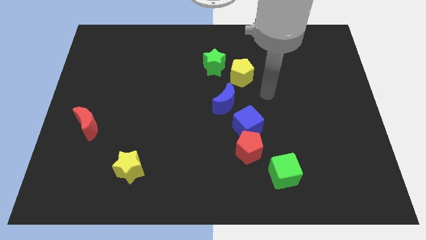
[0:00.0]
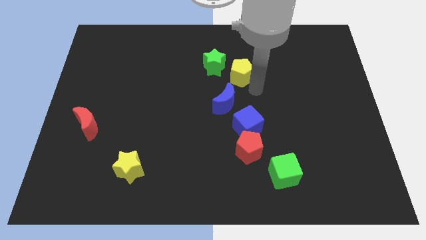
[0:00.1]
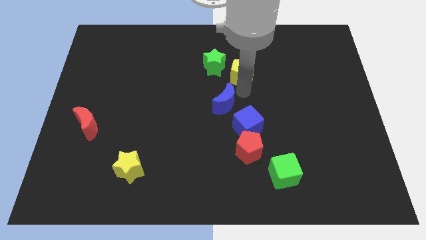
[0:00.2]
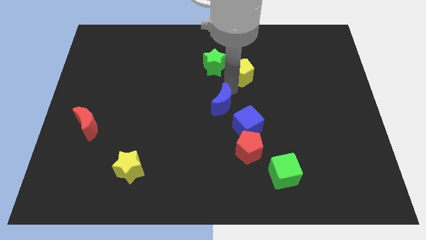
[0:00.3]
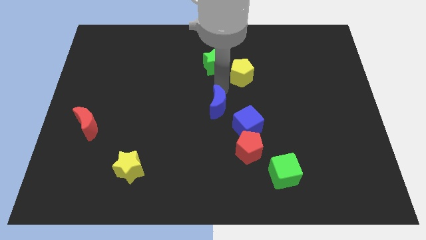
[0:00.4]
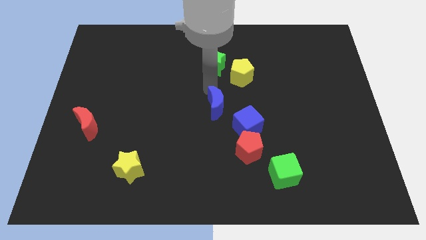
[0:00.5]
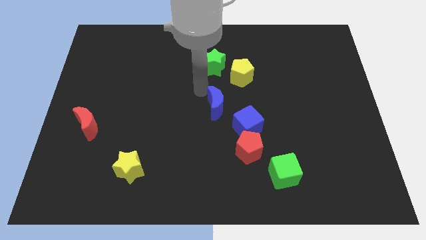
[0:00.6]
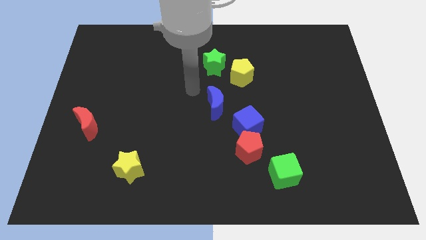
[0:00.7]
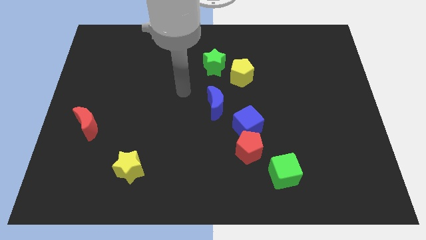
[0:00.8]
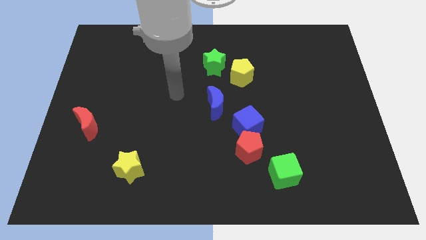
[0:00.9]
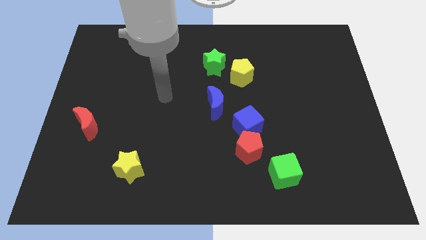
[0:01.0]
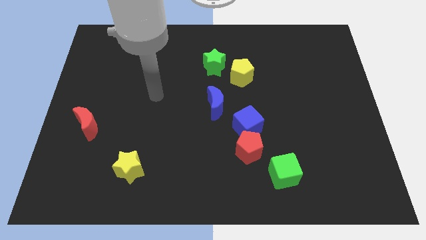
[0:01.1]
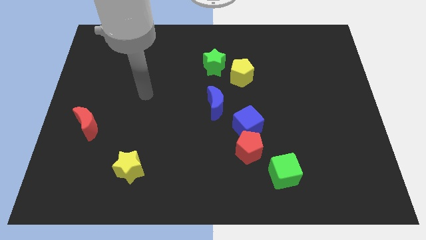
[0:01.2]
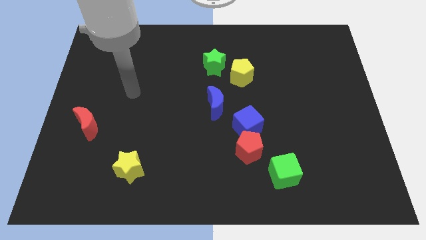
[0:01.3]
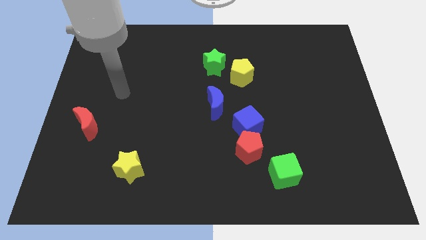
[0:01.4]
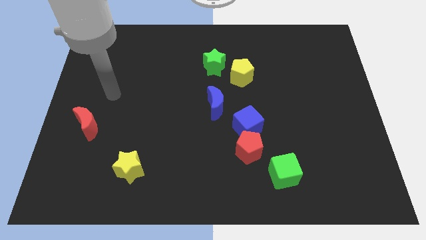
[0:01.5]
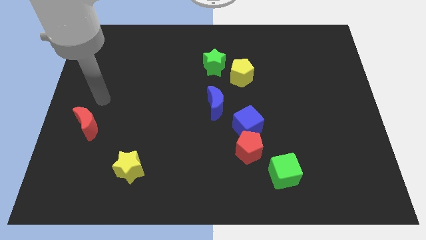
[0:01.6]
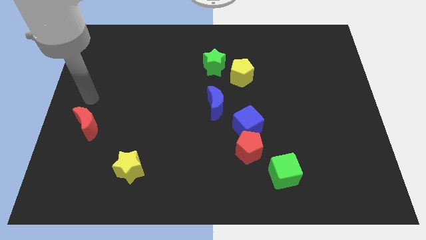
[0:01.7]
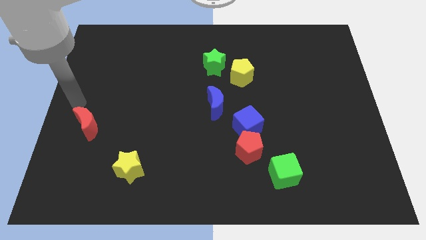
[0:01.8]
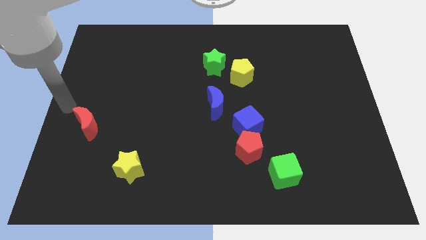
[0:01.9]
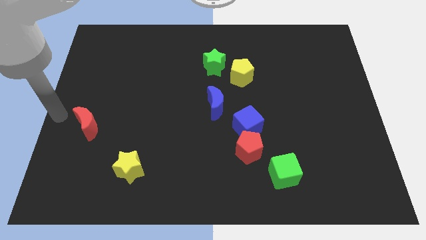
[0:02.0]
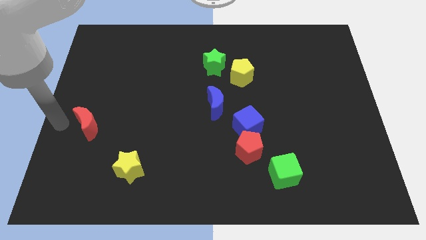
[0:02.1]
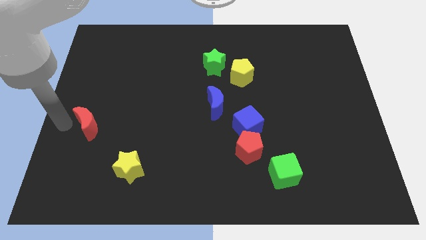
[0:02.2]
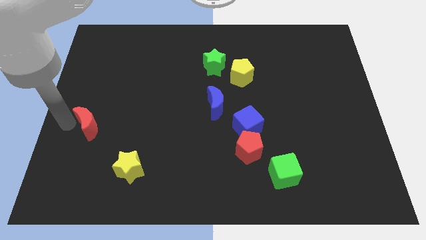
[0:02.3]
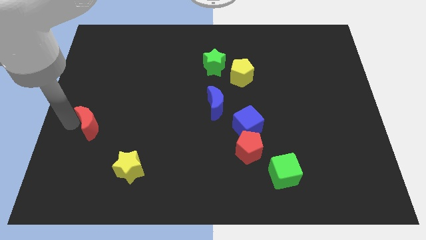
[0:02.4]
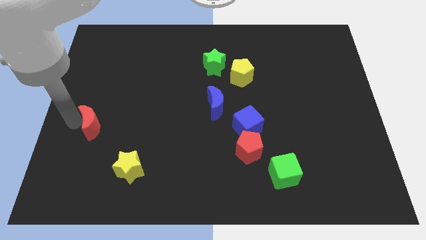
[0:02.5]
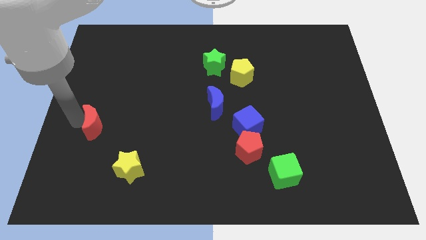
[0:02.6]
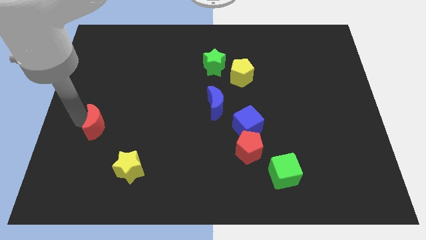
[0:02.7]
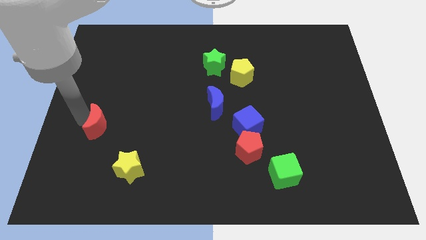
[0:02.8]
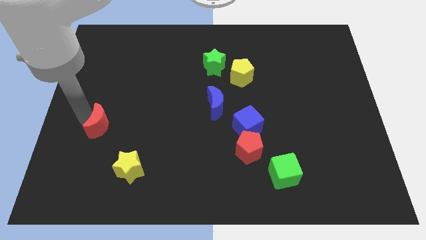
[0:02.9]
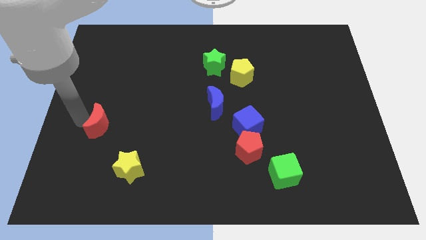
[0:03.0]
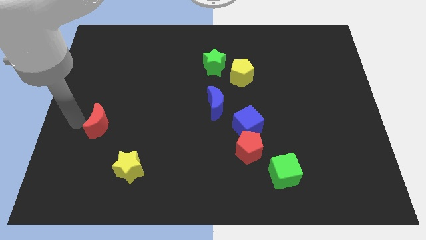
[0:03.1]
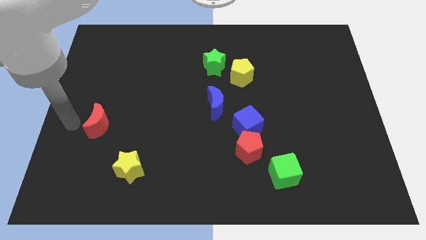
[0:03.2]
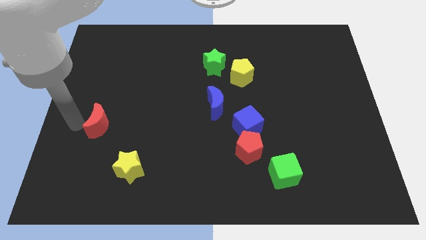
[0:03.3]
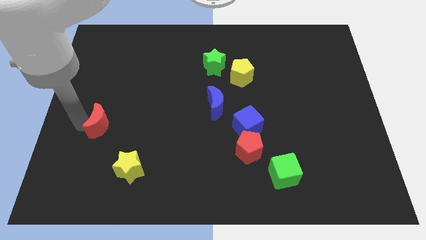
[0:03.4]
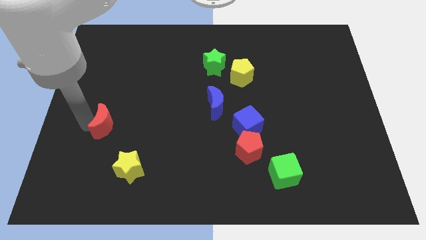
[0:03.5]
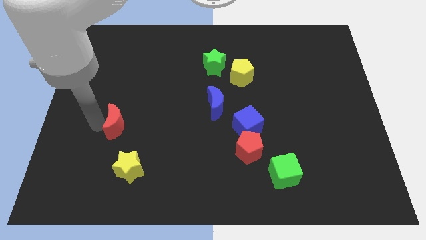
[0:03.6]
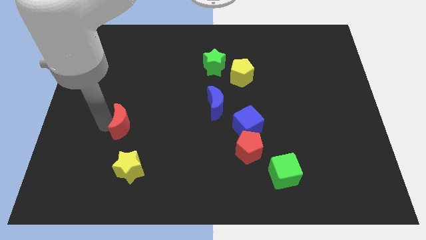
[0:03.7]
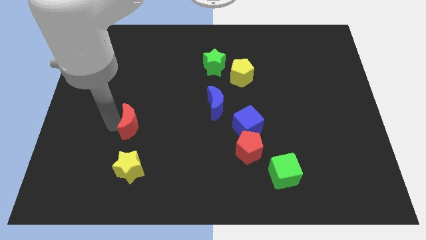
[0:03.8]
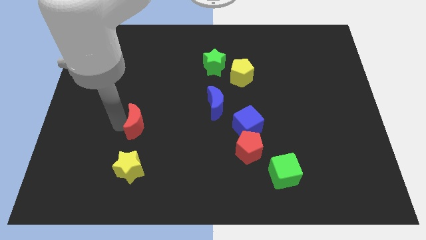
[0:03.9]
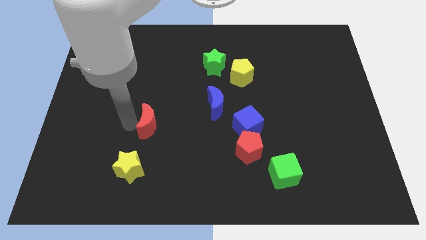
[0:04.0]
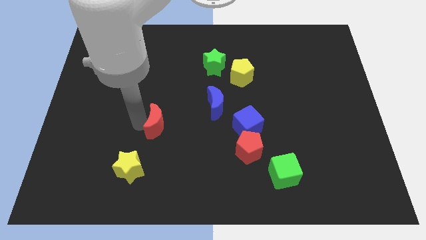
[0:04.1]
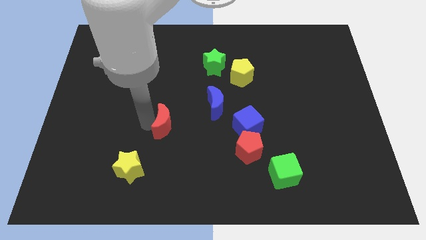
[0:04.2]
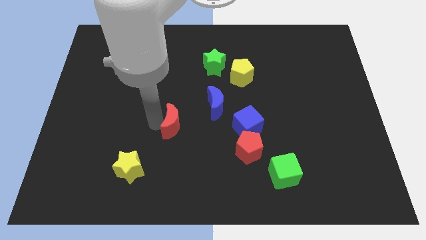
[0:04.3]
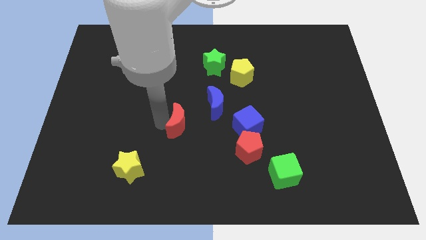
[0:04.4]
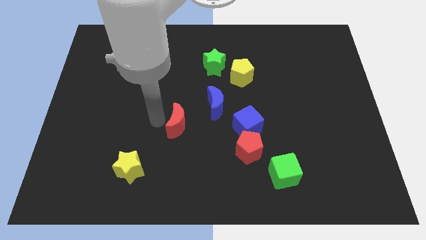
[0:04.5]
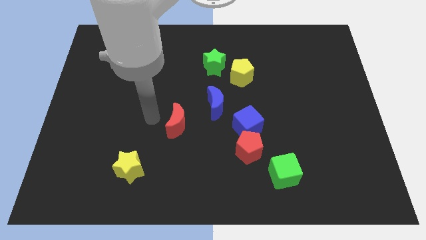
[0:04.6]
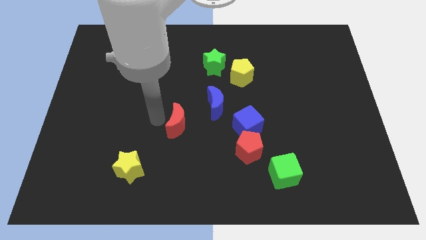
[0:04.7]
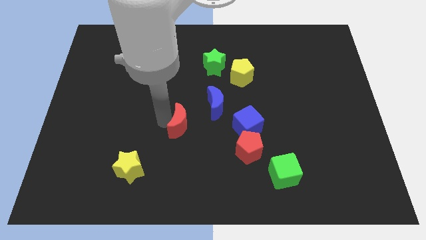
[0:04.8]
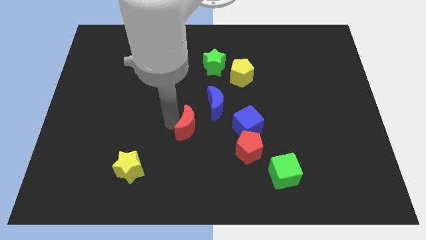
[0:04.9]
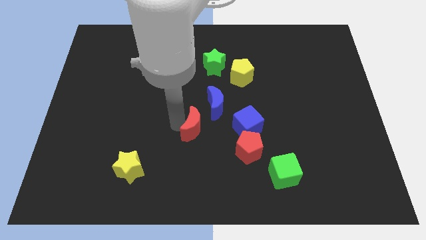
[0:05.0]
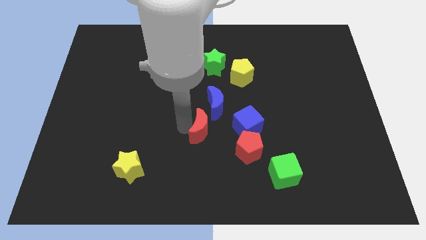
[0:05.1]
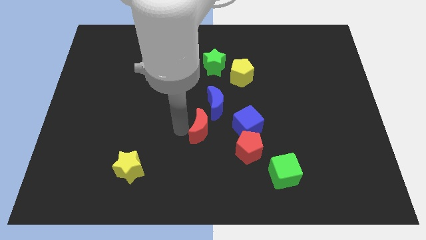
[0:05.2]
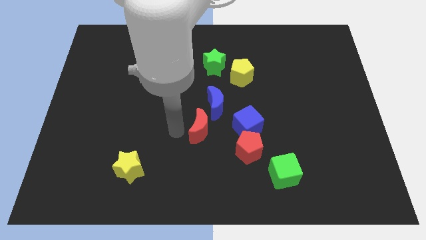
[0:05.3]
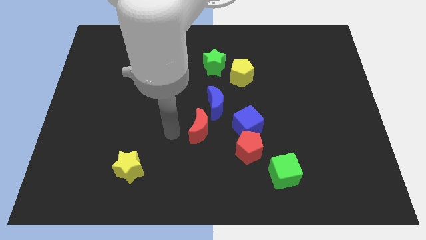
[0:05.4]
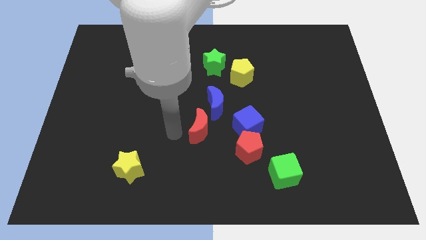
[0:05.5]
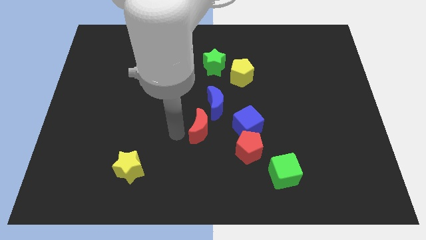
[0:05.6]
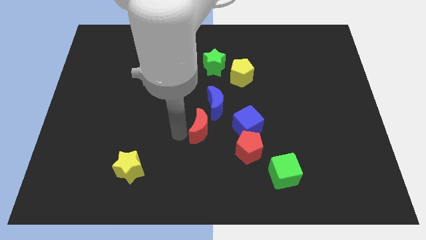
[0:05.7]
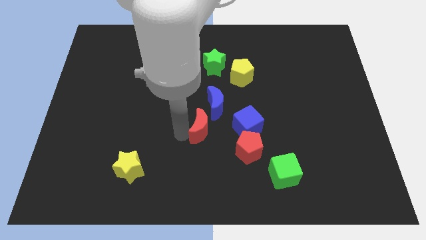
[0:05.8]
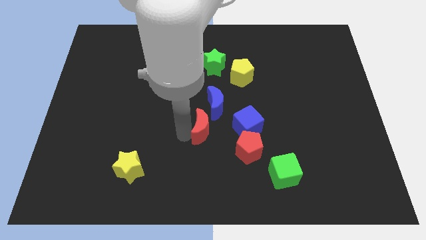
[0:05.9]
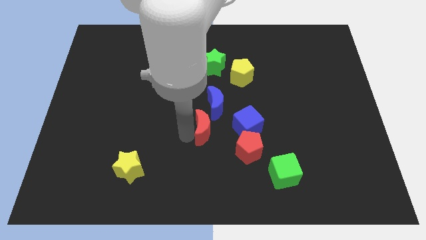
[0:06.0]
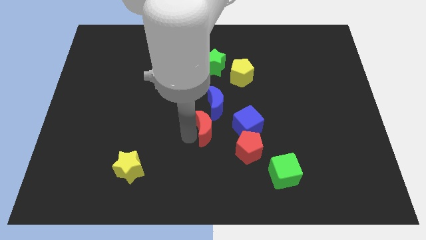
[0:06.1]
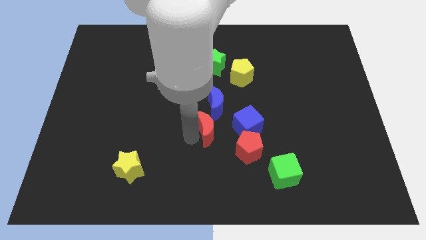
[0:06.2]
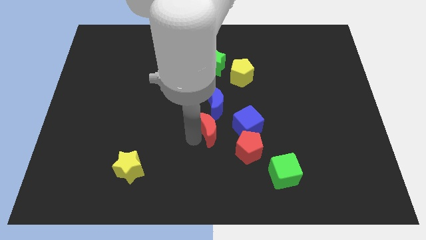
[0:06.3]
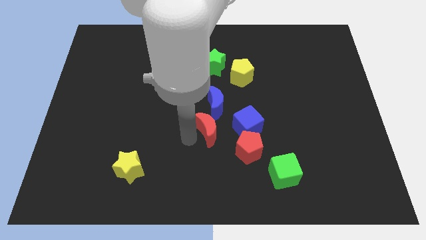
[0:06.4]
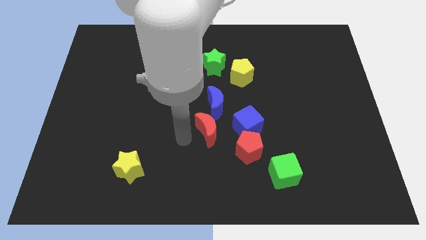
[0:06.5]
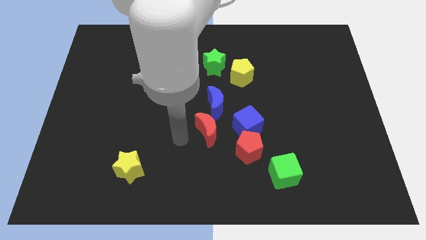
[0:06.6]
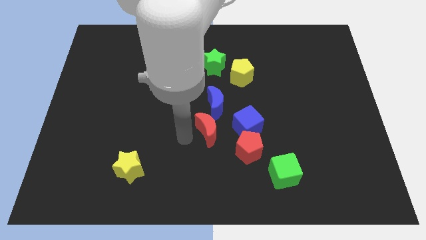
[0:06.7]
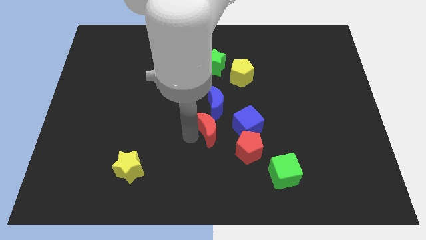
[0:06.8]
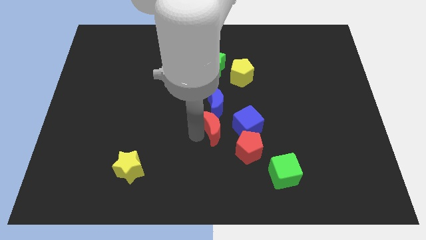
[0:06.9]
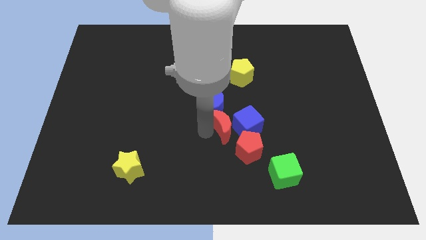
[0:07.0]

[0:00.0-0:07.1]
move the red moon next to the blue cube
